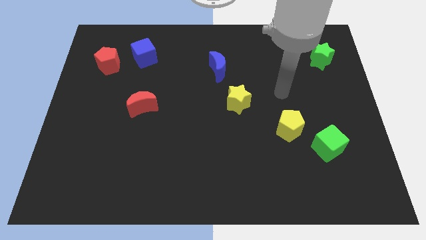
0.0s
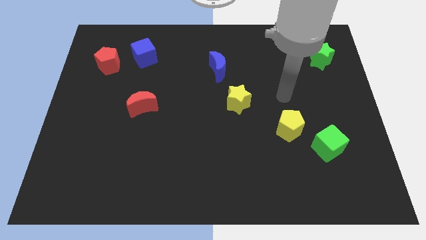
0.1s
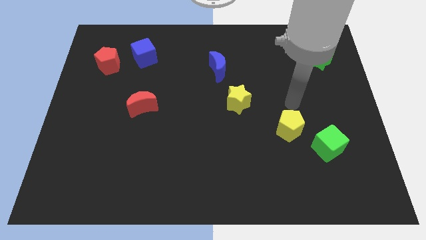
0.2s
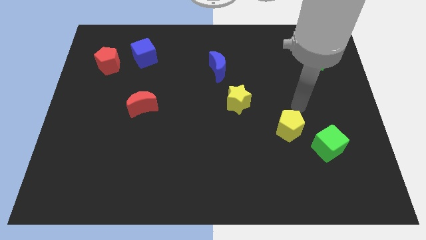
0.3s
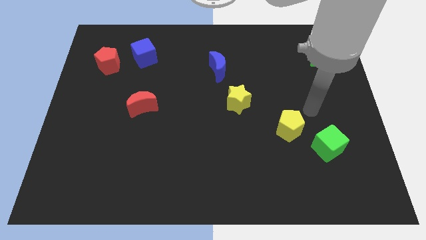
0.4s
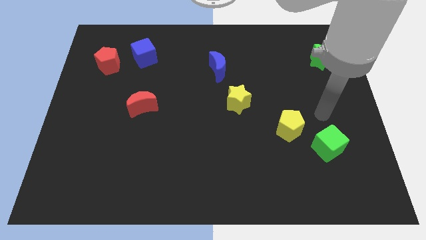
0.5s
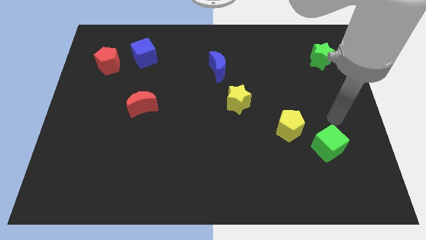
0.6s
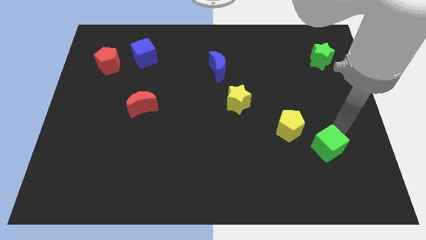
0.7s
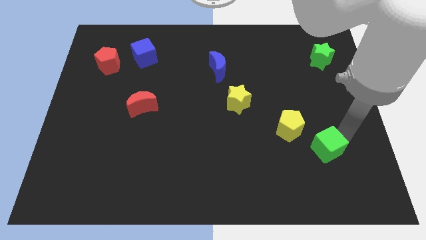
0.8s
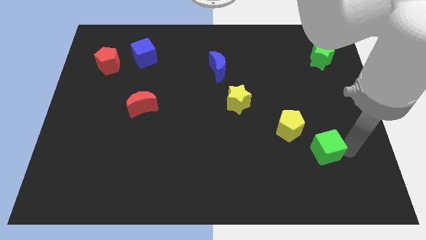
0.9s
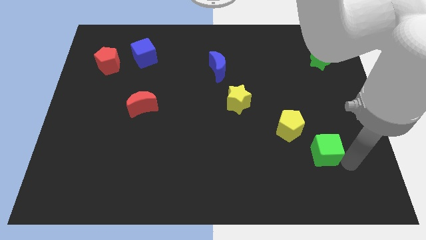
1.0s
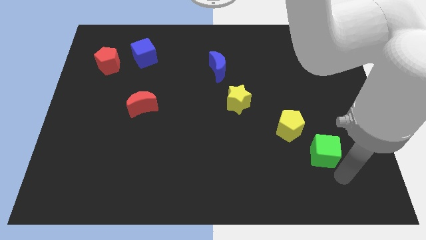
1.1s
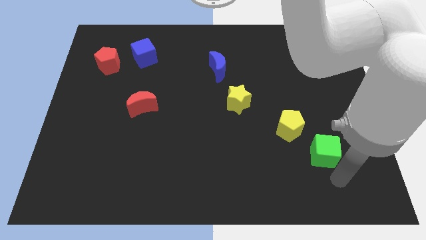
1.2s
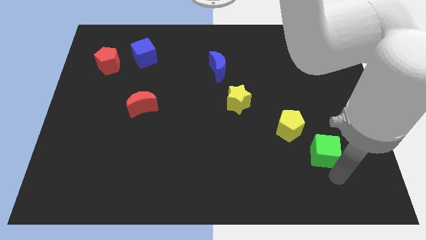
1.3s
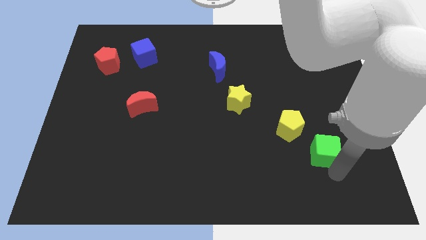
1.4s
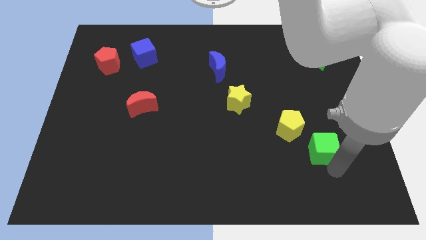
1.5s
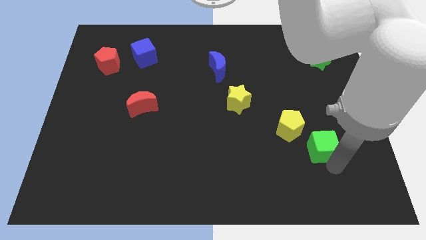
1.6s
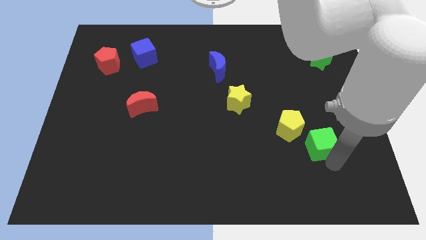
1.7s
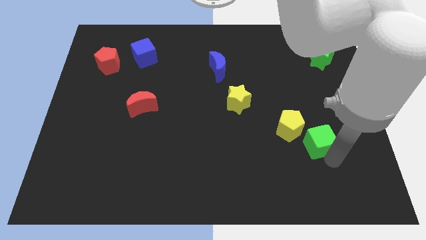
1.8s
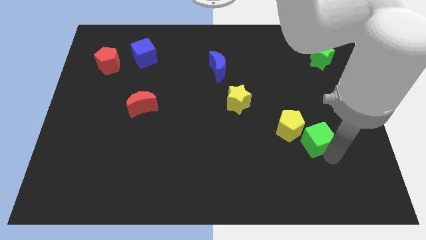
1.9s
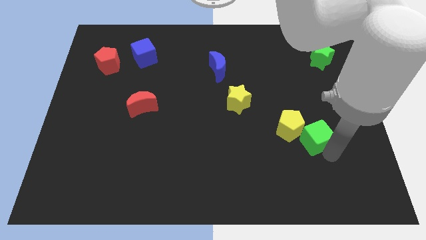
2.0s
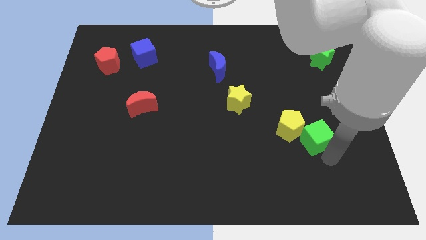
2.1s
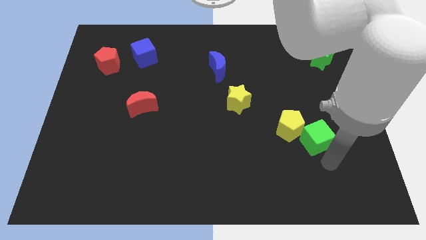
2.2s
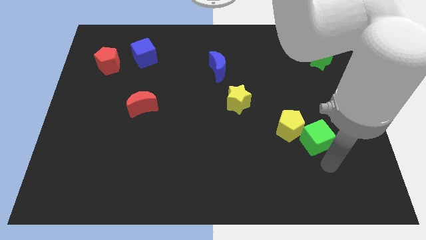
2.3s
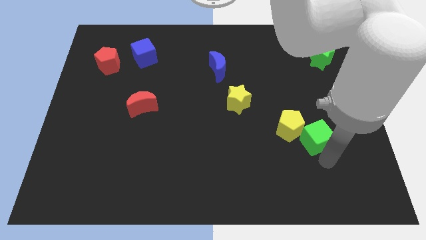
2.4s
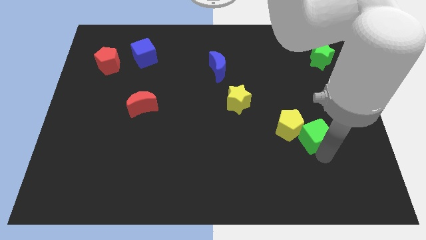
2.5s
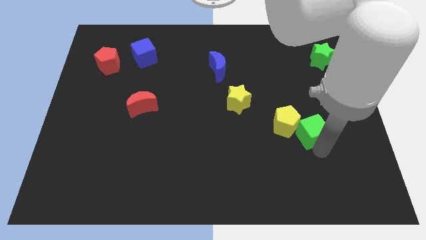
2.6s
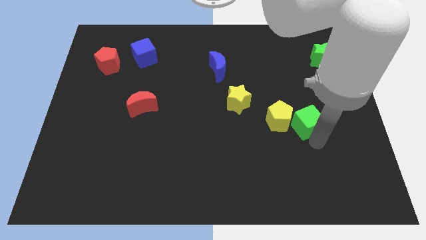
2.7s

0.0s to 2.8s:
slide the green cube a bit up and to the left diagonally

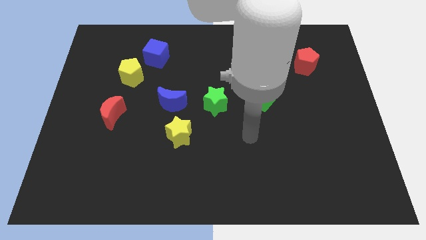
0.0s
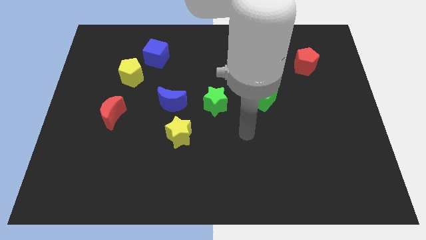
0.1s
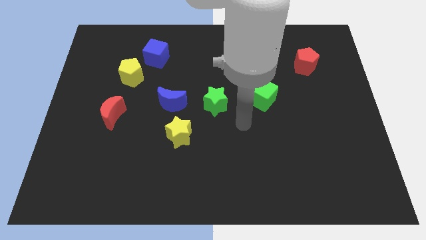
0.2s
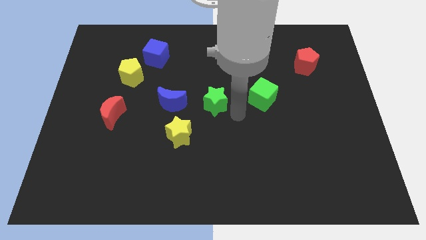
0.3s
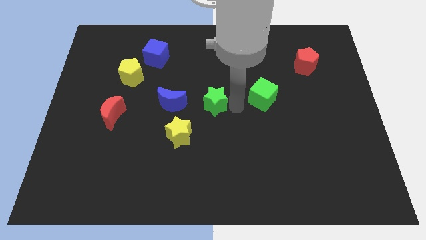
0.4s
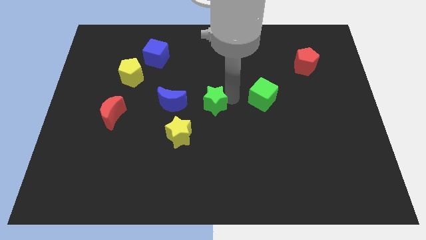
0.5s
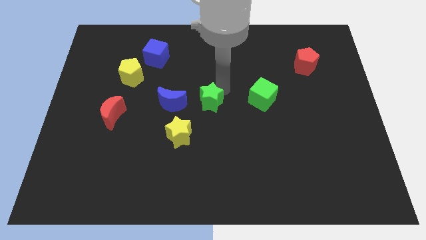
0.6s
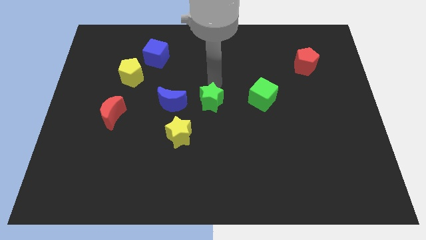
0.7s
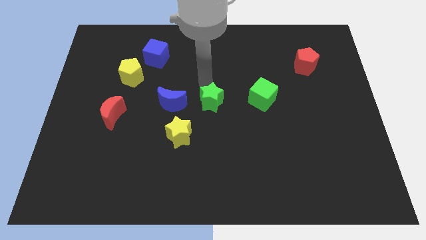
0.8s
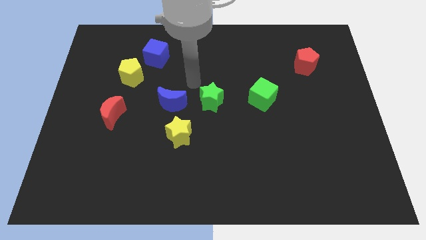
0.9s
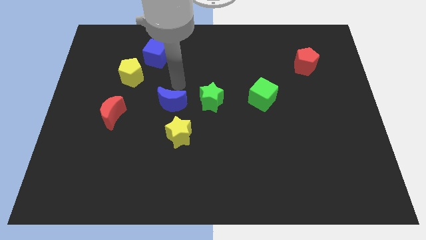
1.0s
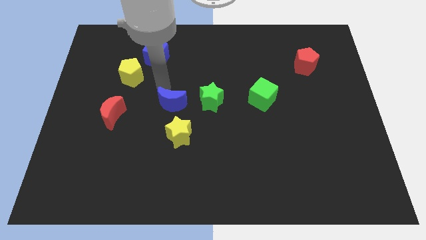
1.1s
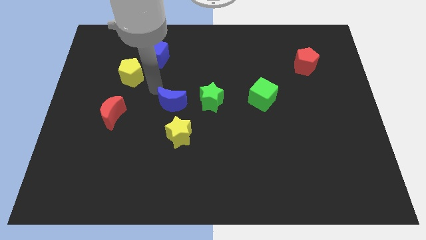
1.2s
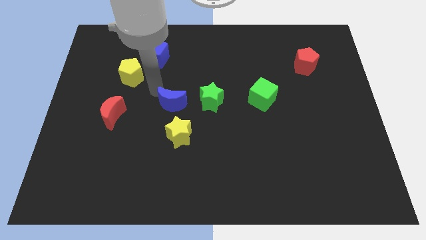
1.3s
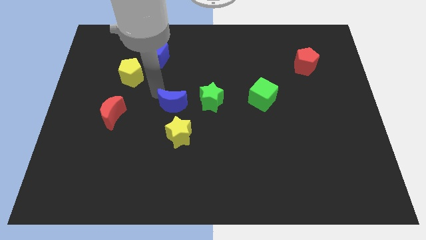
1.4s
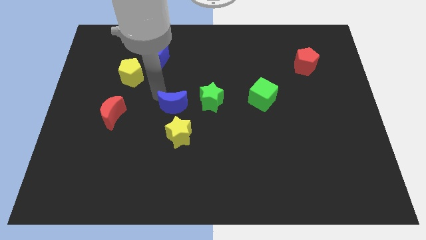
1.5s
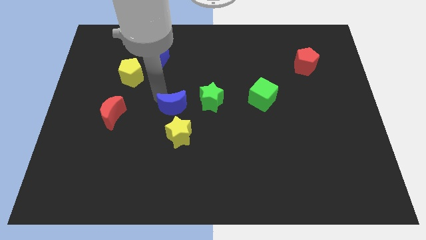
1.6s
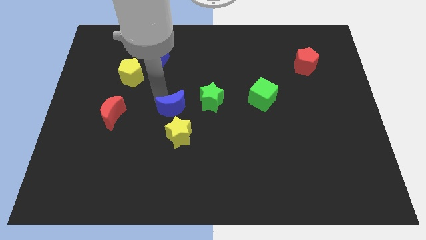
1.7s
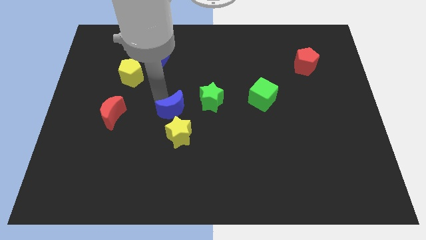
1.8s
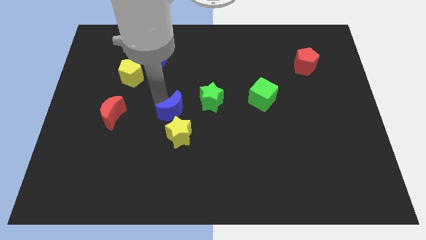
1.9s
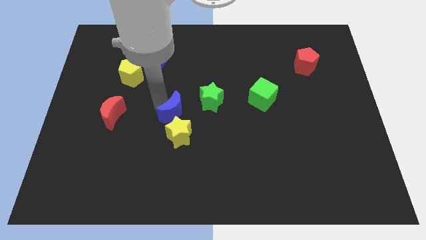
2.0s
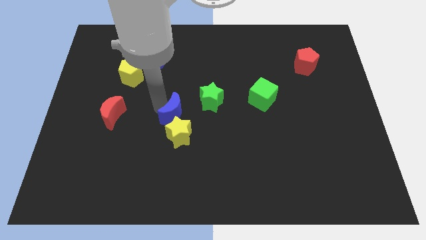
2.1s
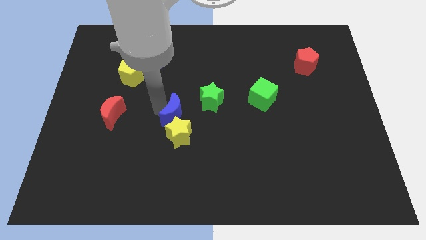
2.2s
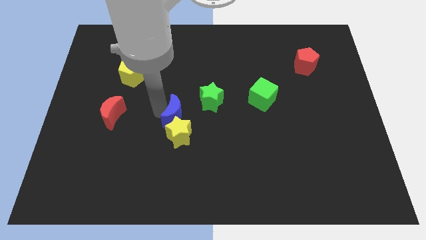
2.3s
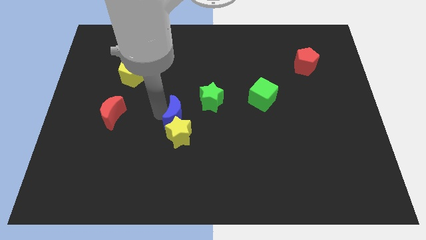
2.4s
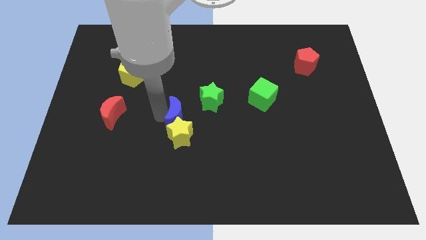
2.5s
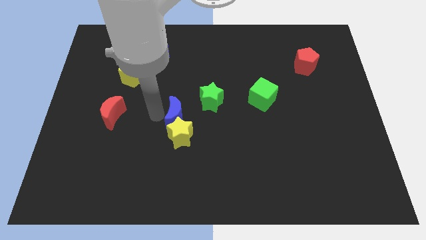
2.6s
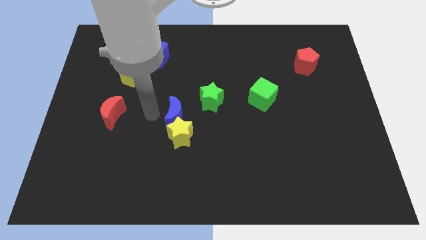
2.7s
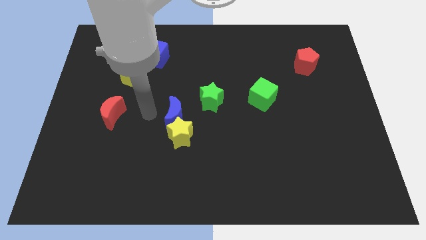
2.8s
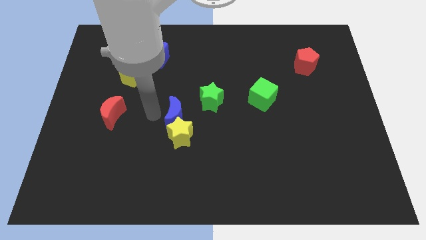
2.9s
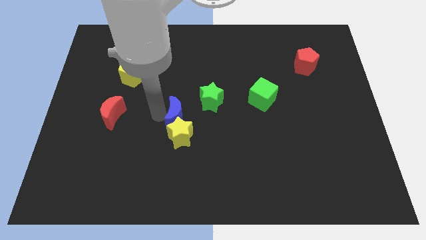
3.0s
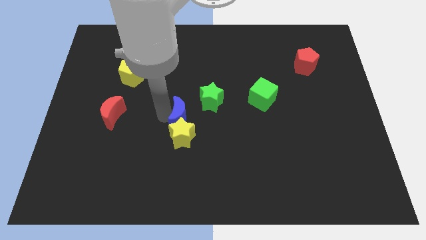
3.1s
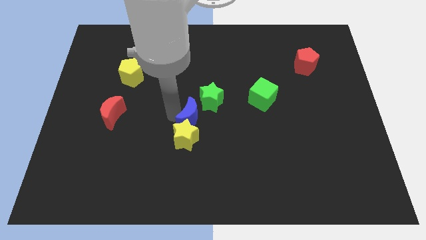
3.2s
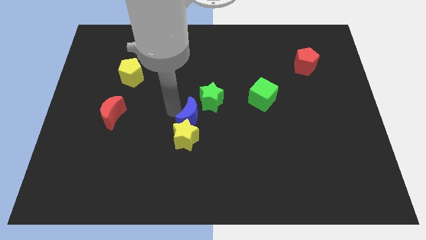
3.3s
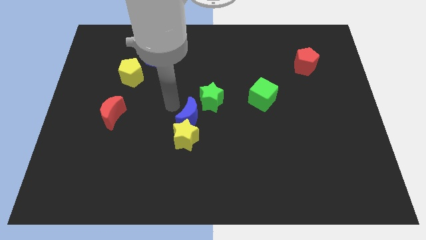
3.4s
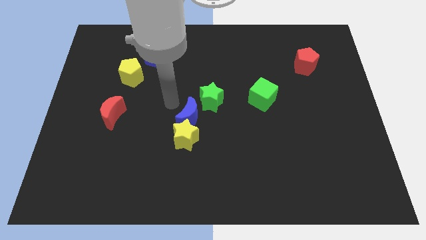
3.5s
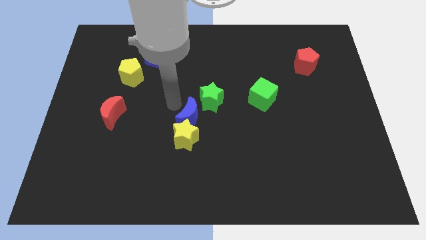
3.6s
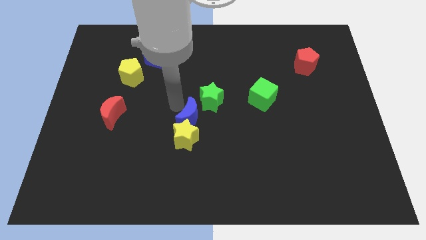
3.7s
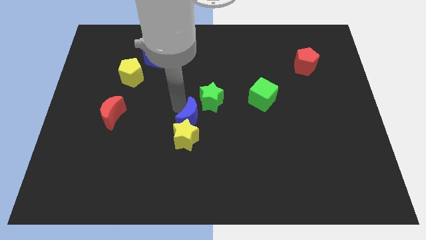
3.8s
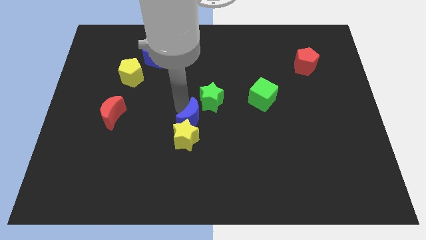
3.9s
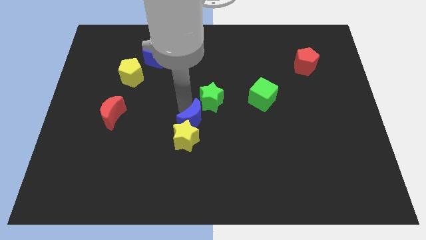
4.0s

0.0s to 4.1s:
slightly push the blue moon downwards and to the right

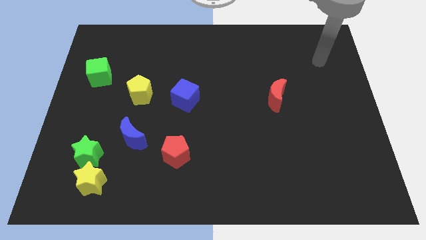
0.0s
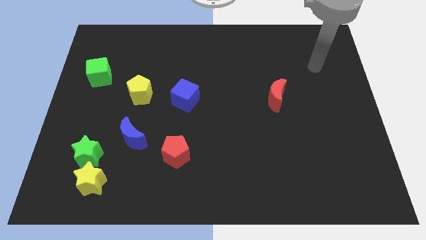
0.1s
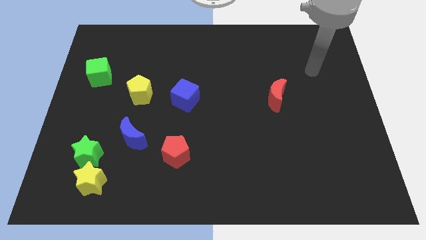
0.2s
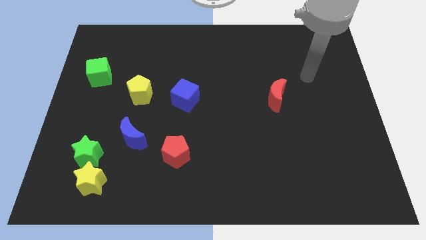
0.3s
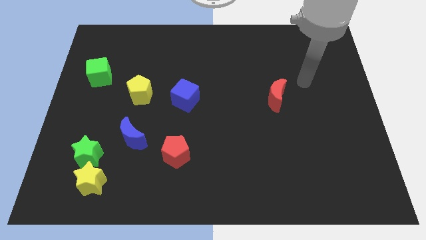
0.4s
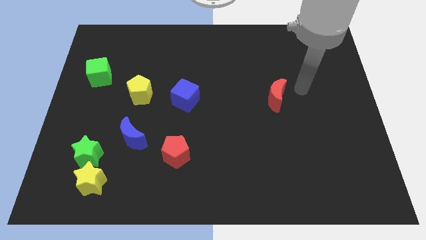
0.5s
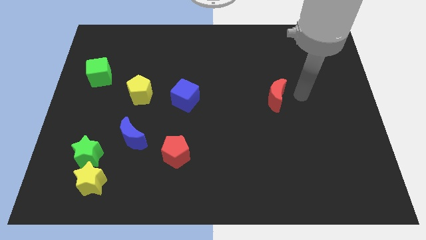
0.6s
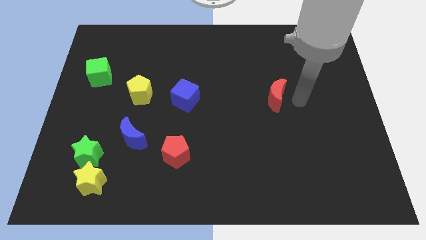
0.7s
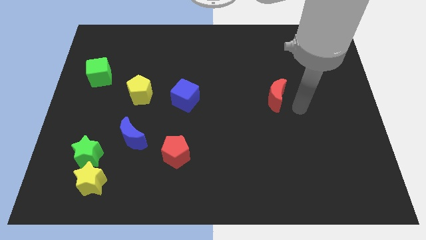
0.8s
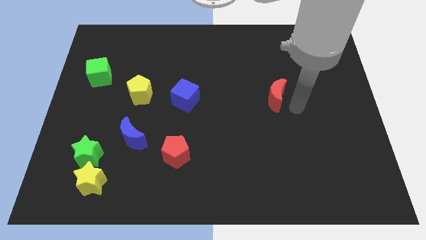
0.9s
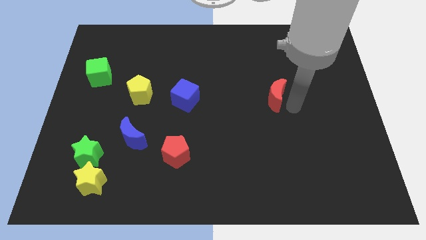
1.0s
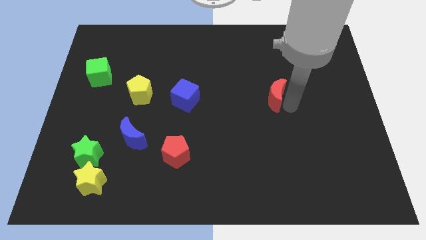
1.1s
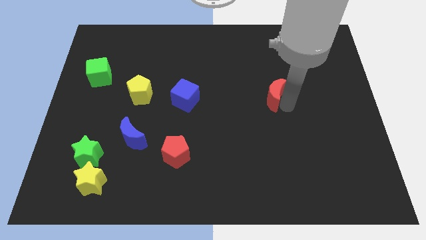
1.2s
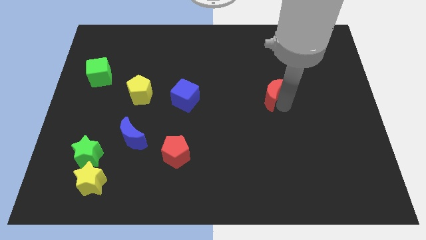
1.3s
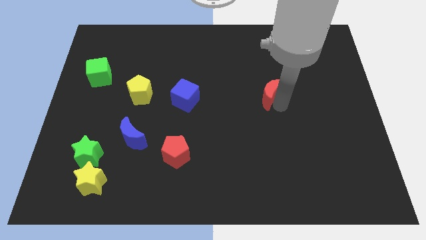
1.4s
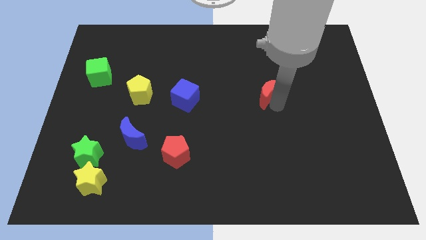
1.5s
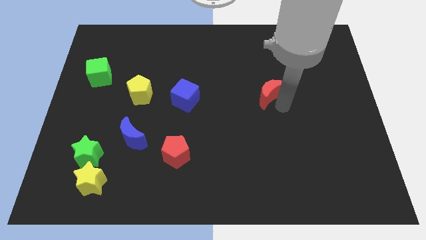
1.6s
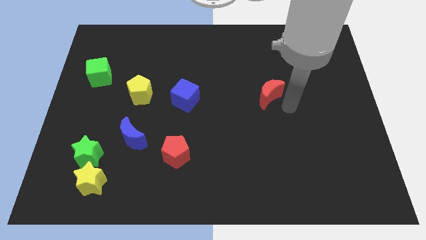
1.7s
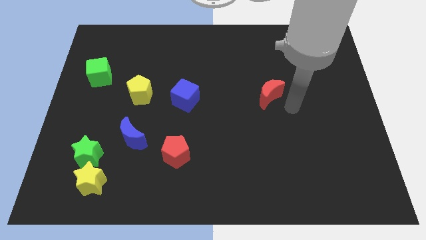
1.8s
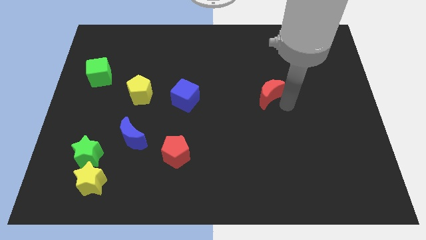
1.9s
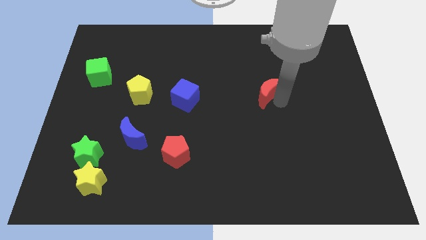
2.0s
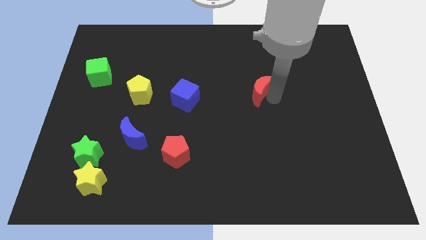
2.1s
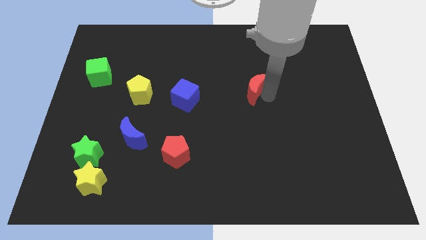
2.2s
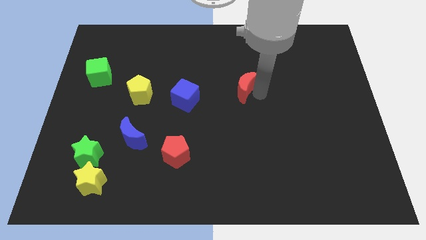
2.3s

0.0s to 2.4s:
slide the red moon diagonally upwards and left a little bit
